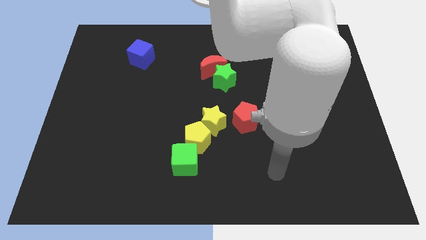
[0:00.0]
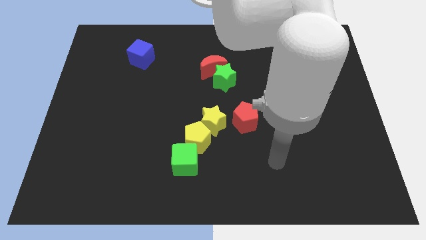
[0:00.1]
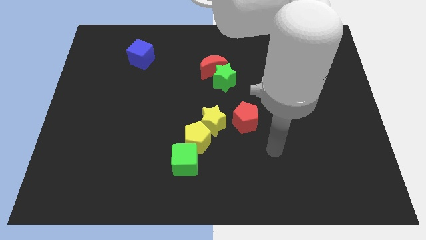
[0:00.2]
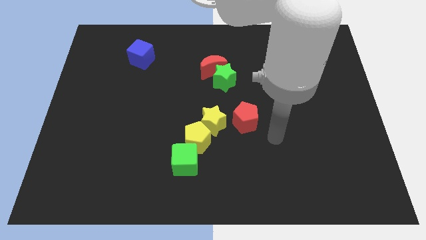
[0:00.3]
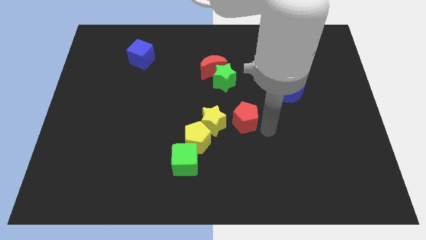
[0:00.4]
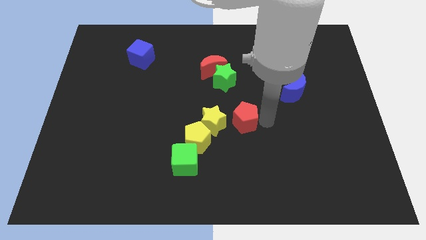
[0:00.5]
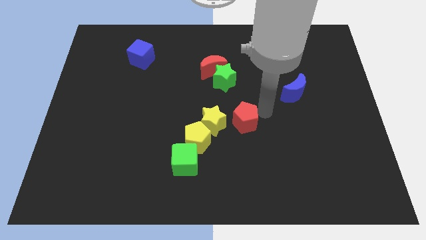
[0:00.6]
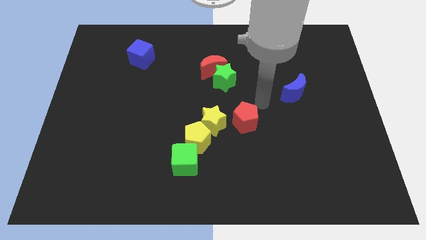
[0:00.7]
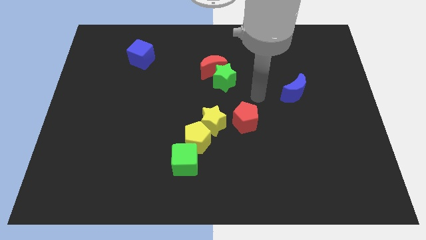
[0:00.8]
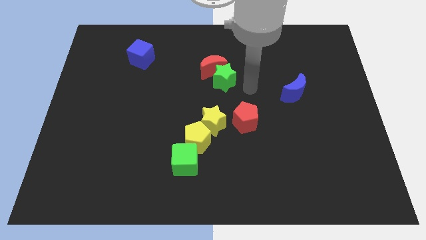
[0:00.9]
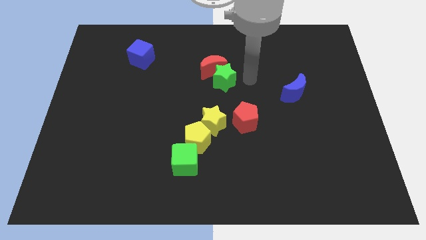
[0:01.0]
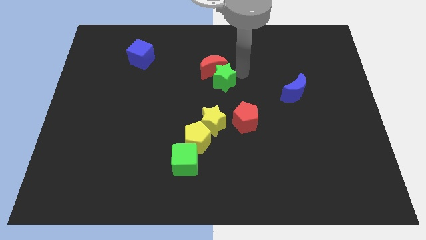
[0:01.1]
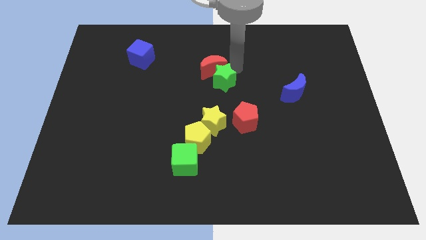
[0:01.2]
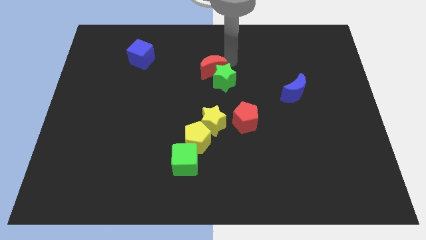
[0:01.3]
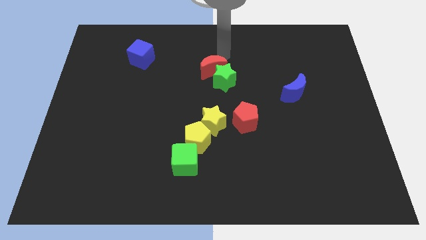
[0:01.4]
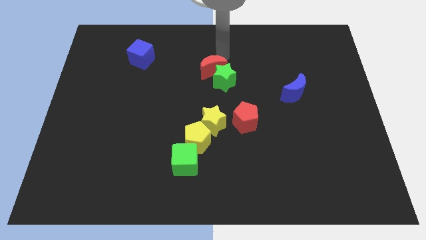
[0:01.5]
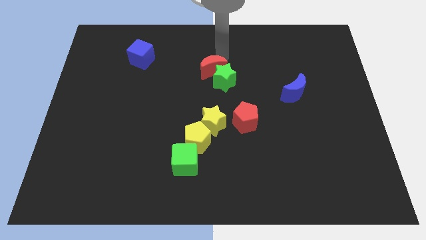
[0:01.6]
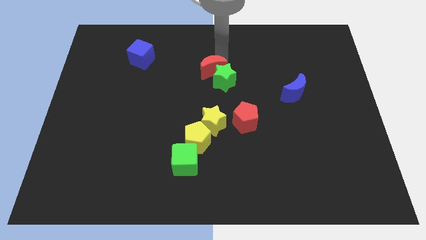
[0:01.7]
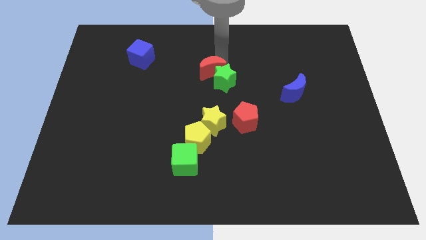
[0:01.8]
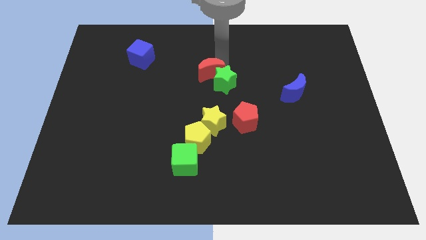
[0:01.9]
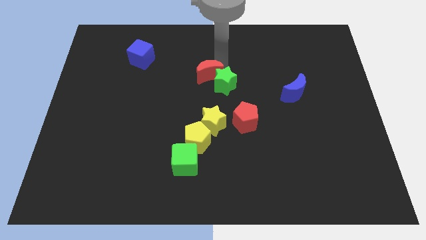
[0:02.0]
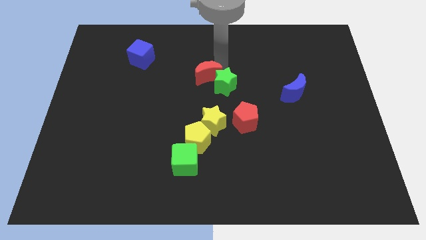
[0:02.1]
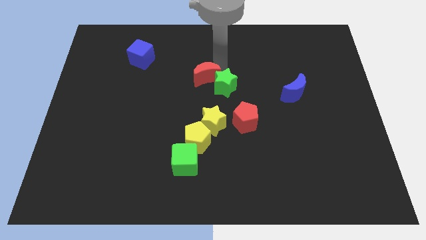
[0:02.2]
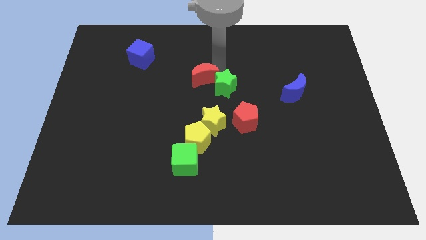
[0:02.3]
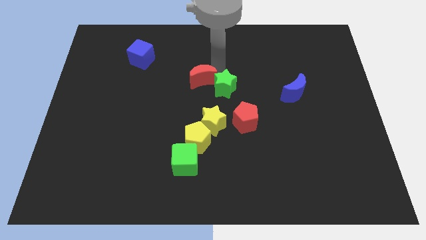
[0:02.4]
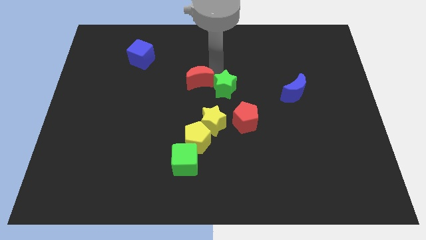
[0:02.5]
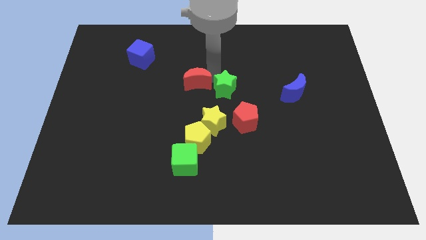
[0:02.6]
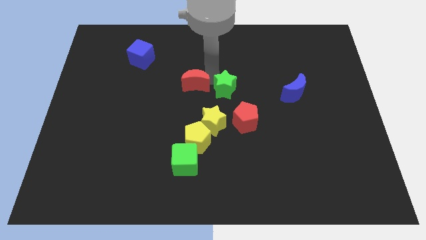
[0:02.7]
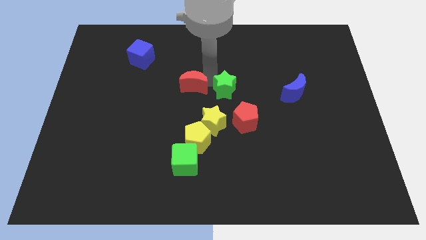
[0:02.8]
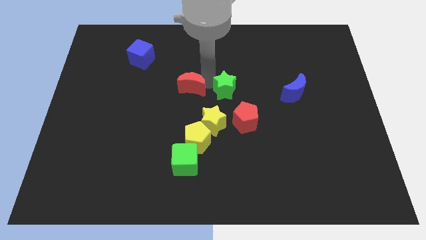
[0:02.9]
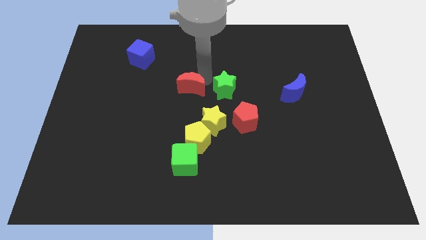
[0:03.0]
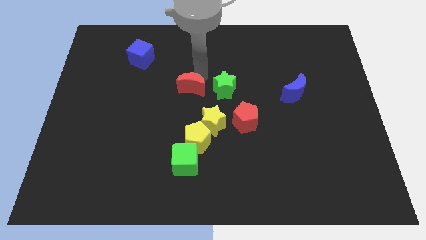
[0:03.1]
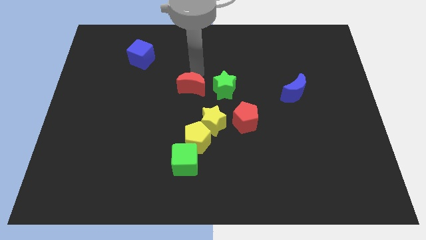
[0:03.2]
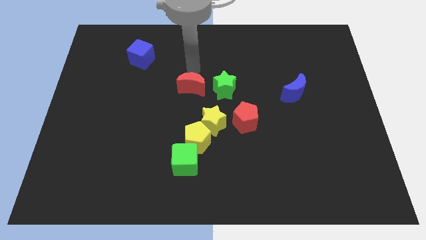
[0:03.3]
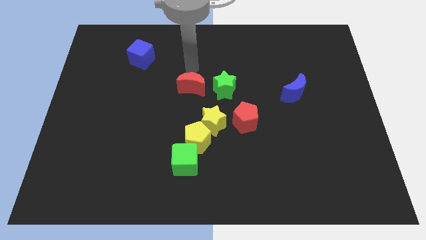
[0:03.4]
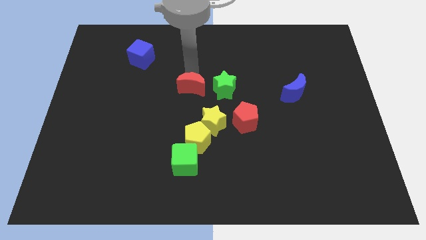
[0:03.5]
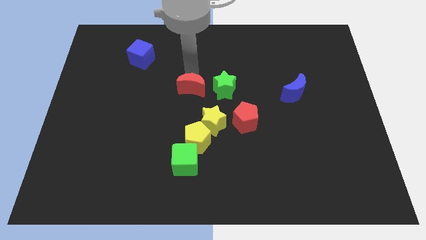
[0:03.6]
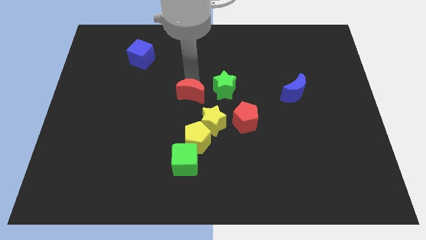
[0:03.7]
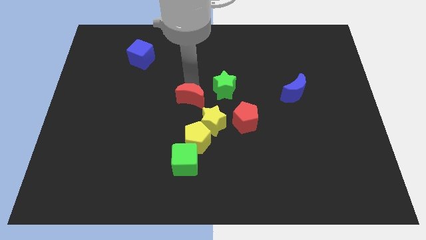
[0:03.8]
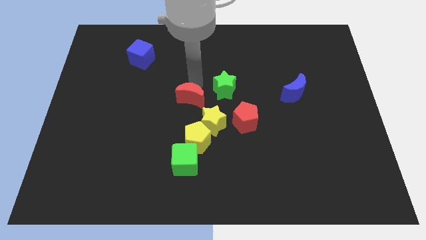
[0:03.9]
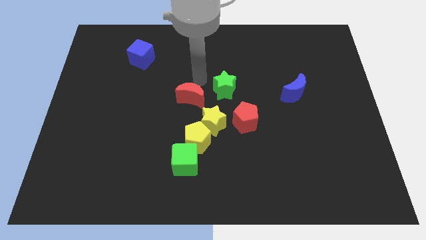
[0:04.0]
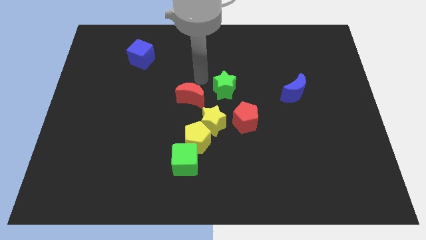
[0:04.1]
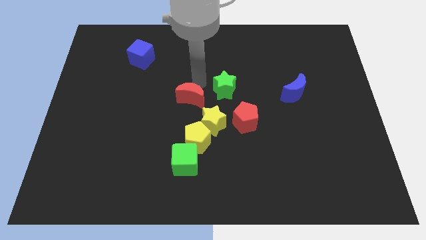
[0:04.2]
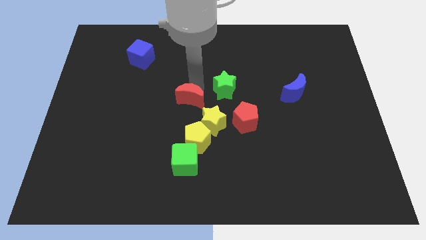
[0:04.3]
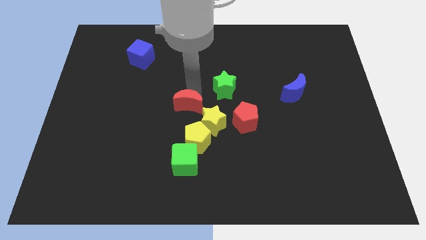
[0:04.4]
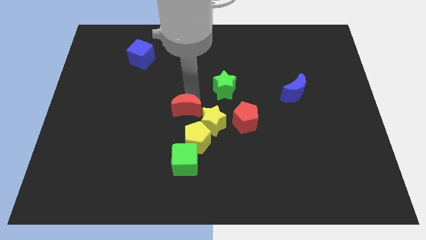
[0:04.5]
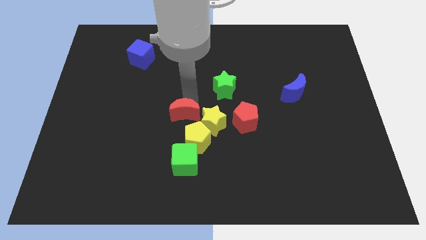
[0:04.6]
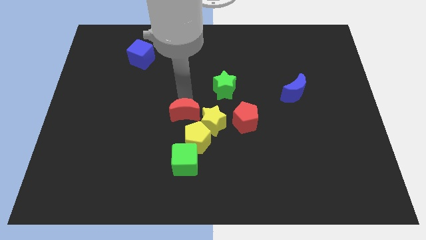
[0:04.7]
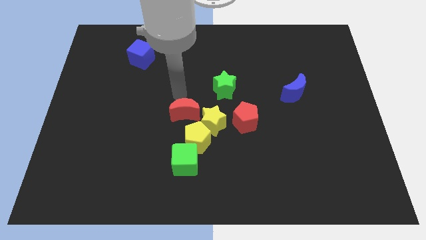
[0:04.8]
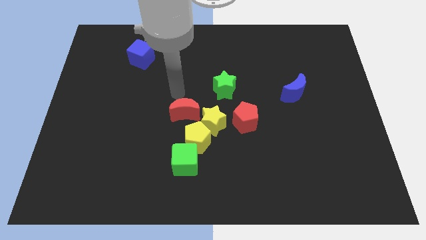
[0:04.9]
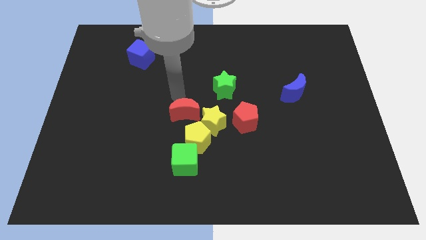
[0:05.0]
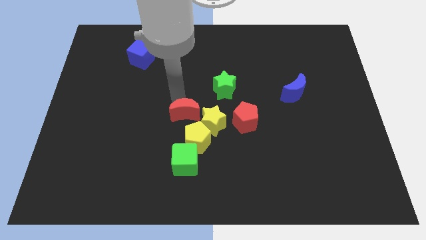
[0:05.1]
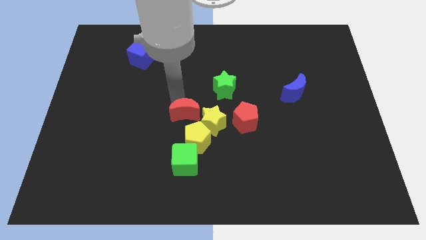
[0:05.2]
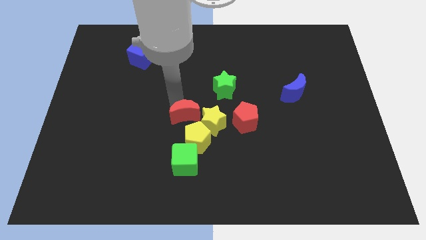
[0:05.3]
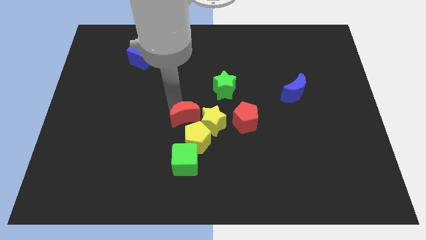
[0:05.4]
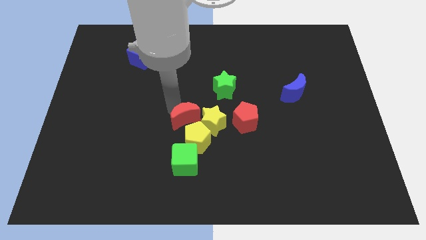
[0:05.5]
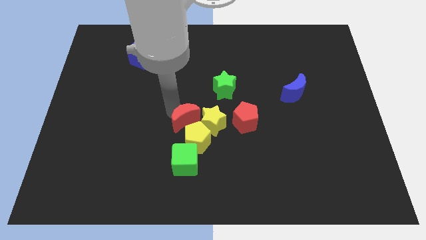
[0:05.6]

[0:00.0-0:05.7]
put the red moon close to the yellow pentagon

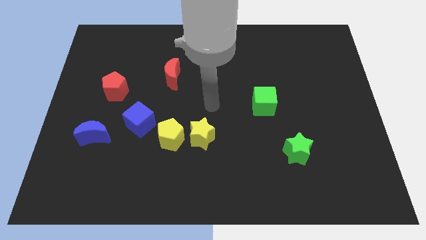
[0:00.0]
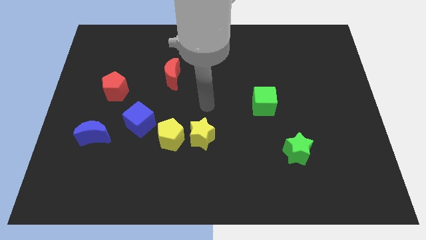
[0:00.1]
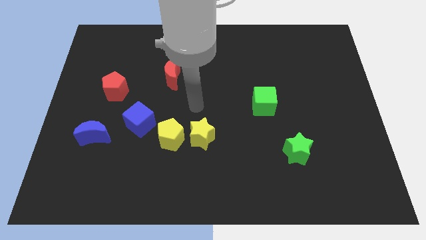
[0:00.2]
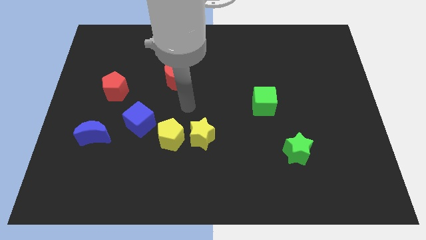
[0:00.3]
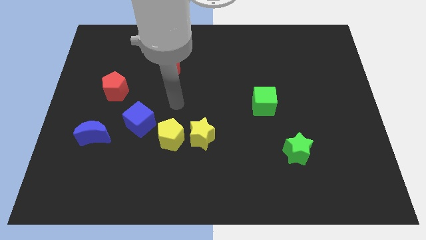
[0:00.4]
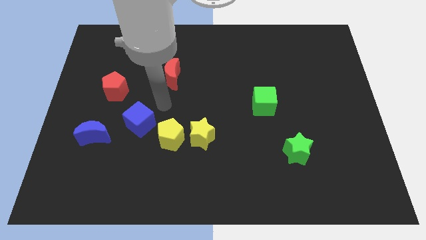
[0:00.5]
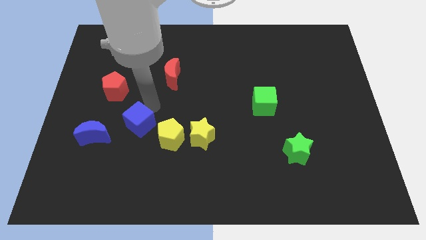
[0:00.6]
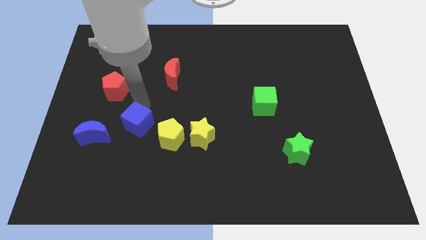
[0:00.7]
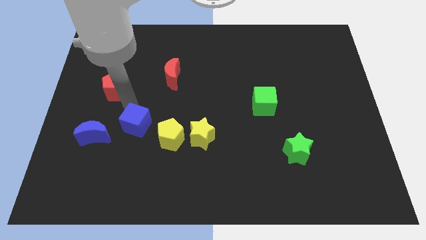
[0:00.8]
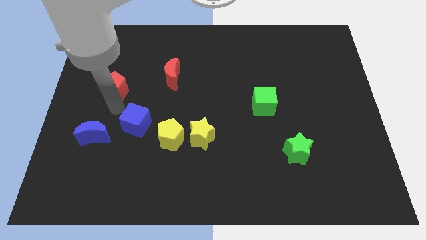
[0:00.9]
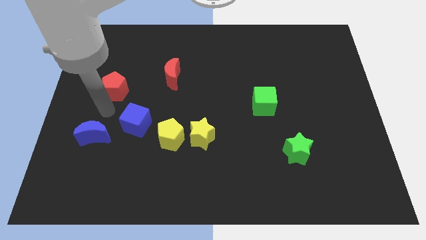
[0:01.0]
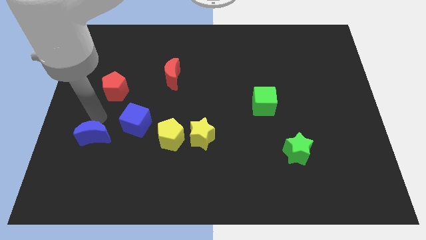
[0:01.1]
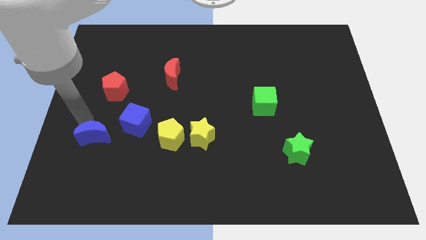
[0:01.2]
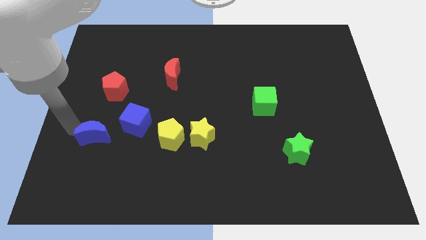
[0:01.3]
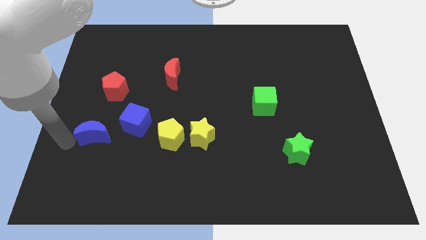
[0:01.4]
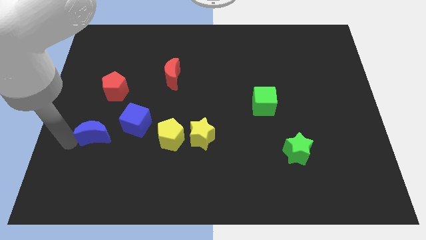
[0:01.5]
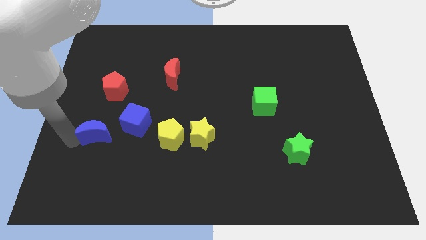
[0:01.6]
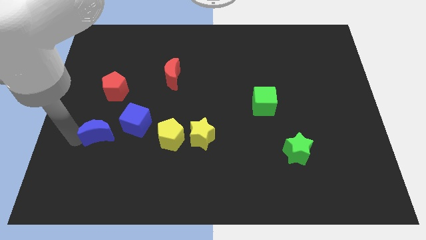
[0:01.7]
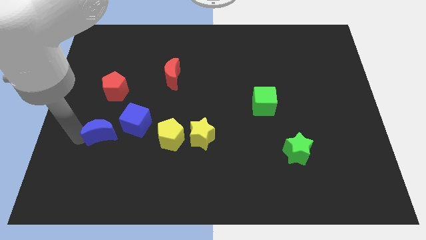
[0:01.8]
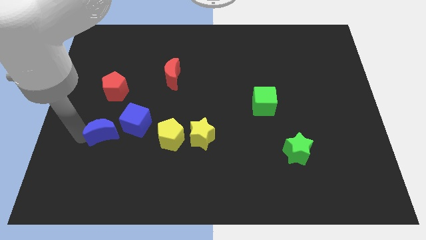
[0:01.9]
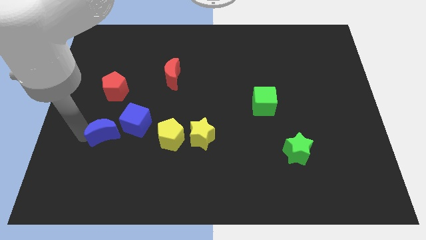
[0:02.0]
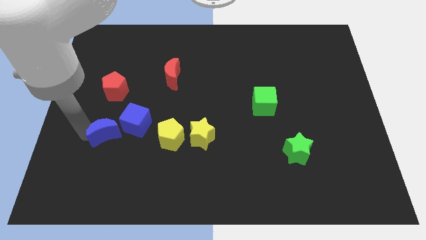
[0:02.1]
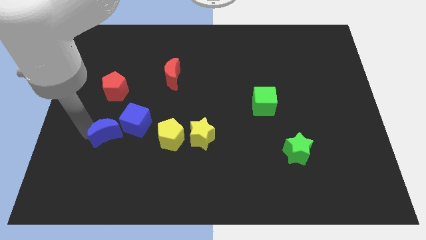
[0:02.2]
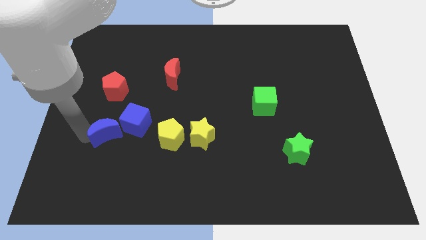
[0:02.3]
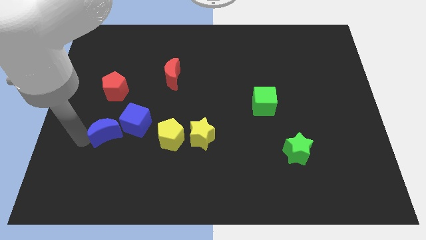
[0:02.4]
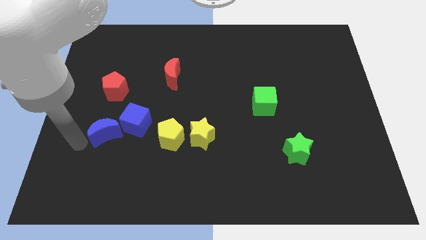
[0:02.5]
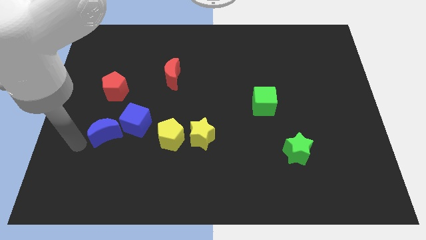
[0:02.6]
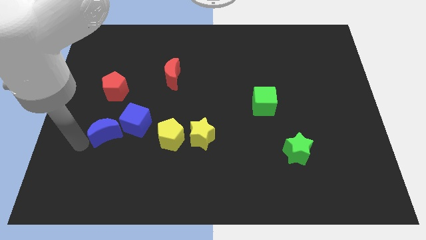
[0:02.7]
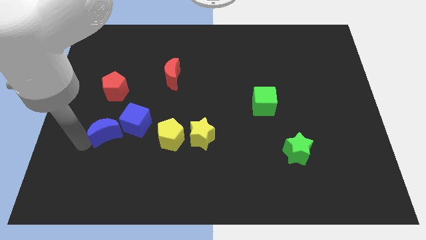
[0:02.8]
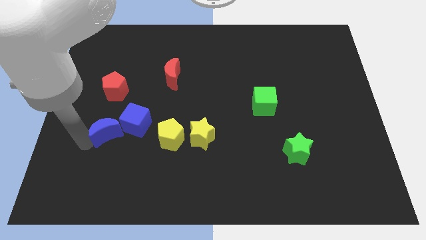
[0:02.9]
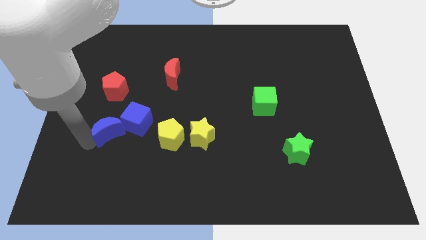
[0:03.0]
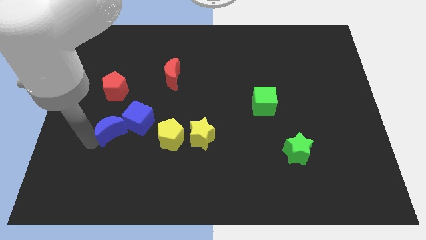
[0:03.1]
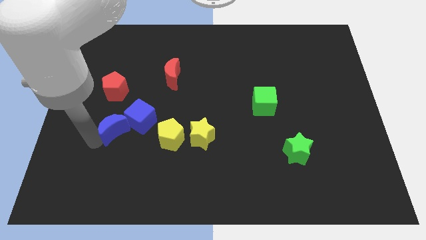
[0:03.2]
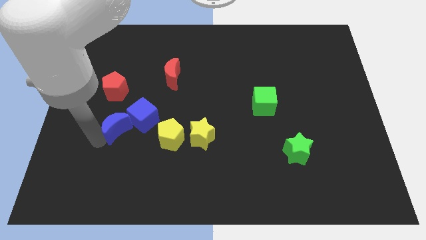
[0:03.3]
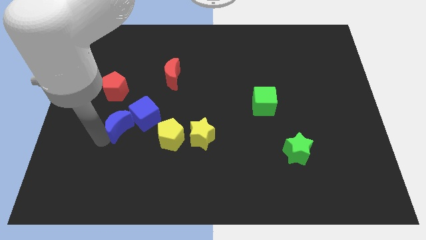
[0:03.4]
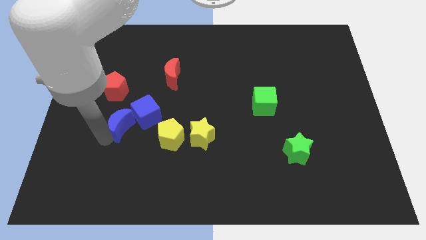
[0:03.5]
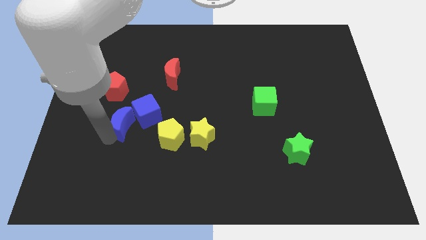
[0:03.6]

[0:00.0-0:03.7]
put the blue moon next to the blue cube
